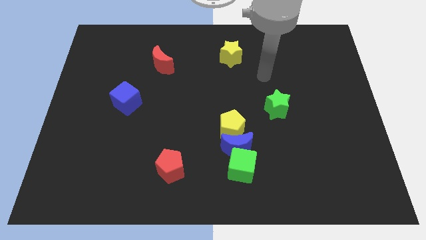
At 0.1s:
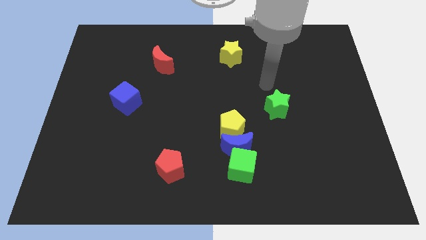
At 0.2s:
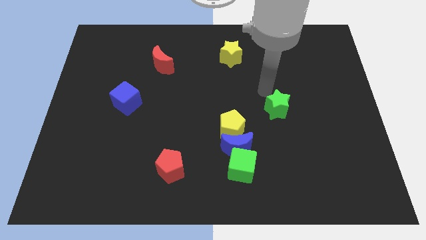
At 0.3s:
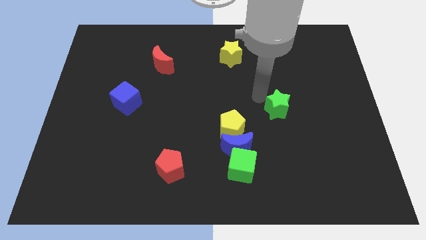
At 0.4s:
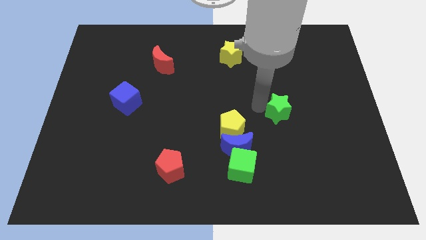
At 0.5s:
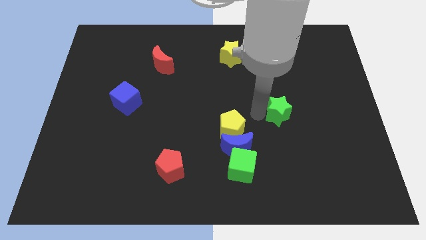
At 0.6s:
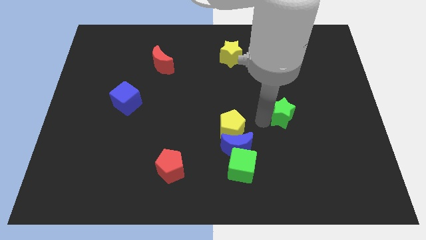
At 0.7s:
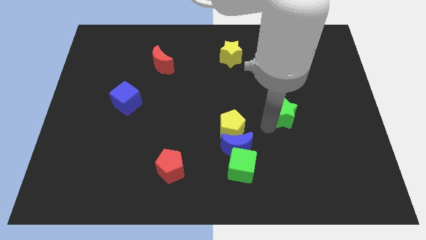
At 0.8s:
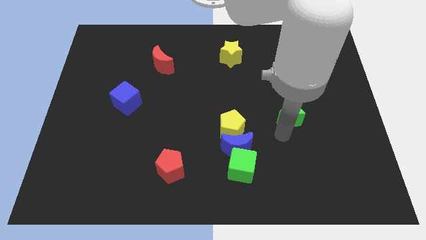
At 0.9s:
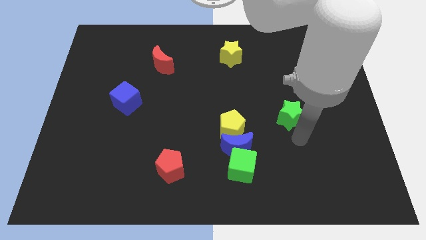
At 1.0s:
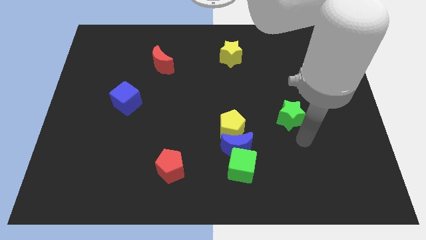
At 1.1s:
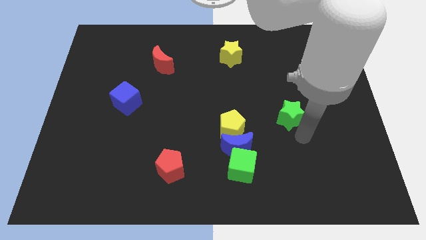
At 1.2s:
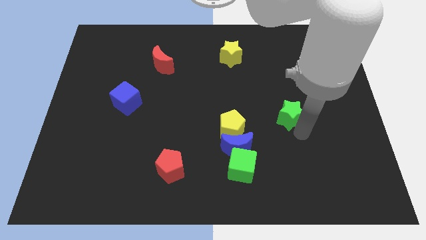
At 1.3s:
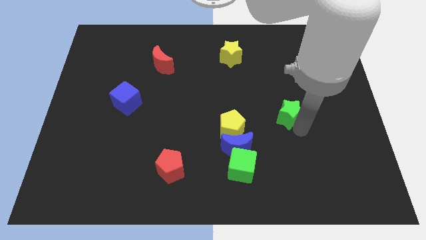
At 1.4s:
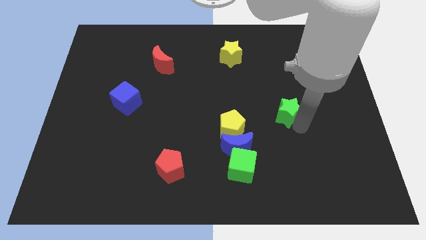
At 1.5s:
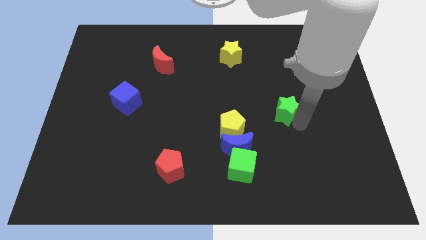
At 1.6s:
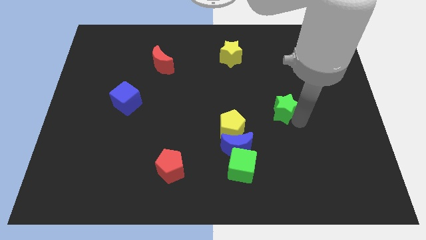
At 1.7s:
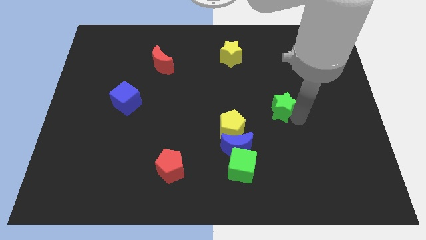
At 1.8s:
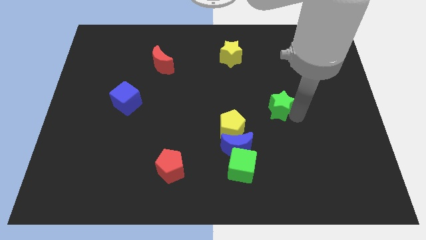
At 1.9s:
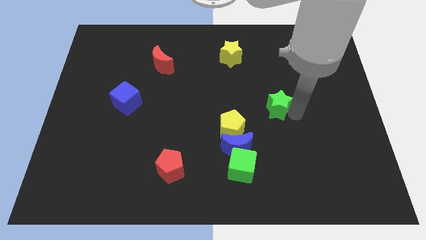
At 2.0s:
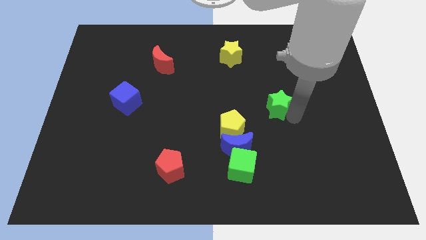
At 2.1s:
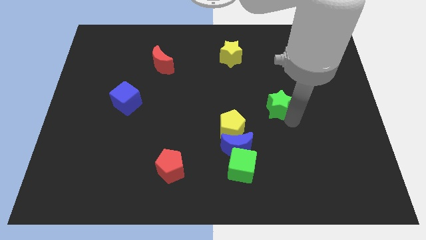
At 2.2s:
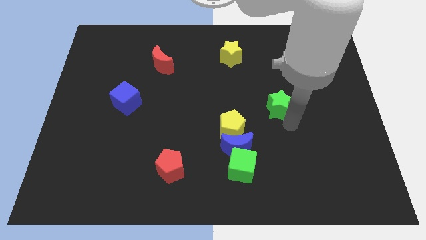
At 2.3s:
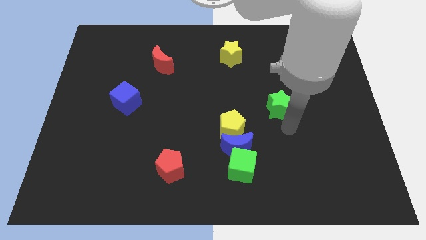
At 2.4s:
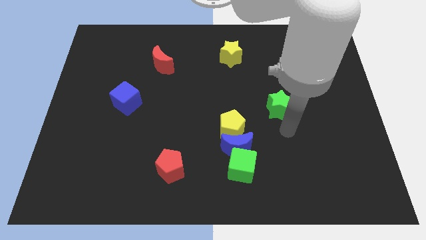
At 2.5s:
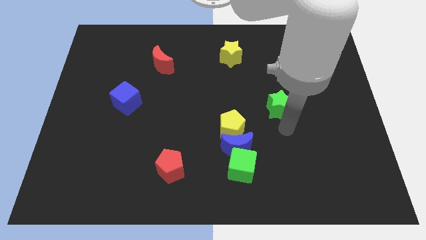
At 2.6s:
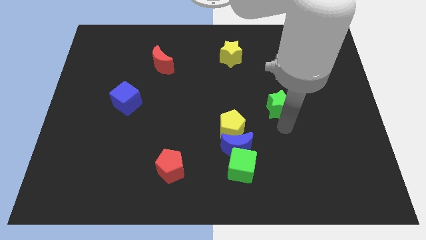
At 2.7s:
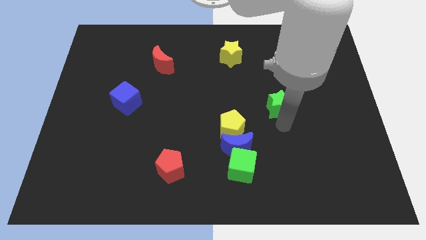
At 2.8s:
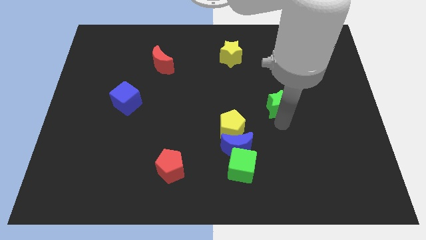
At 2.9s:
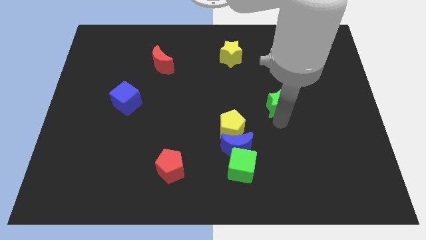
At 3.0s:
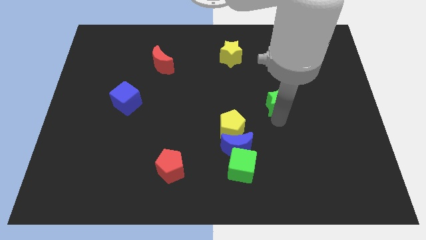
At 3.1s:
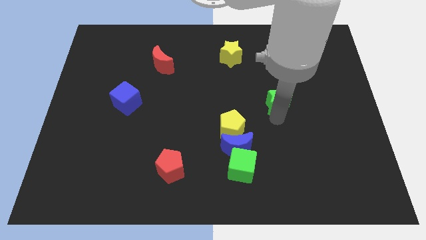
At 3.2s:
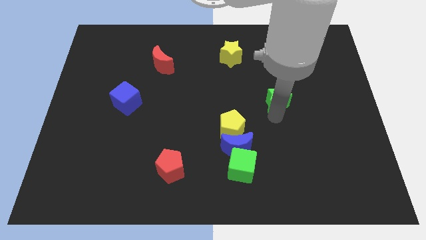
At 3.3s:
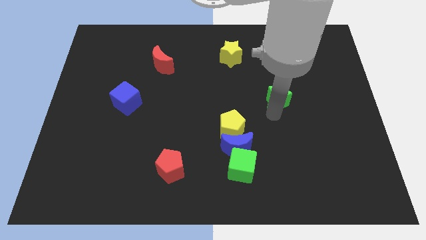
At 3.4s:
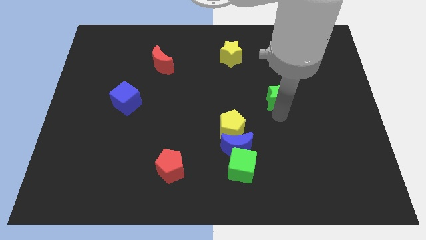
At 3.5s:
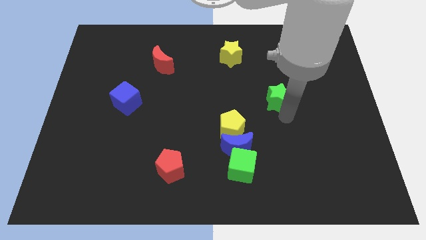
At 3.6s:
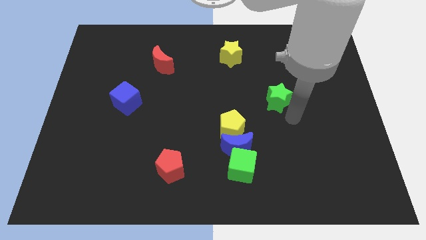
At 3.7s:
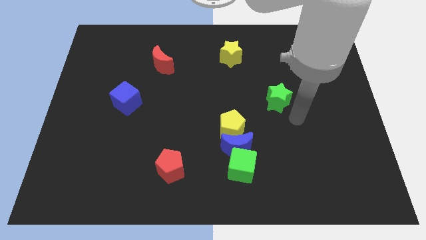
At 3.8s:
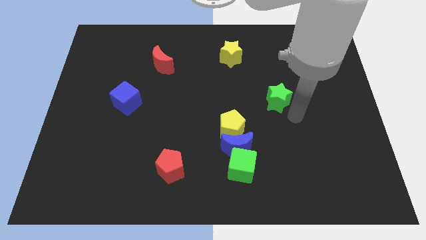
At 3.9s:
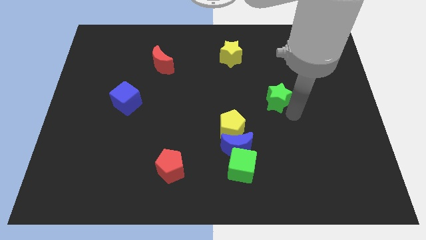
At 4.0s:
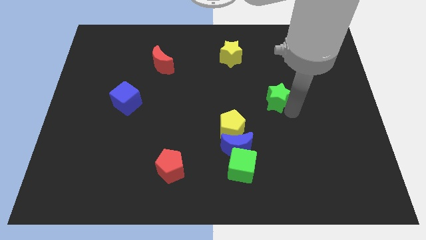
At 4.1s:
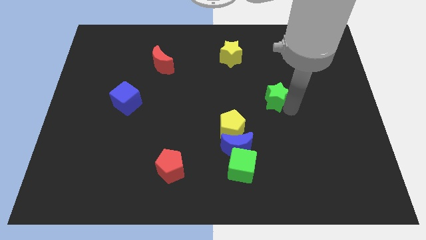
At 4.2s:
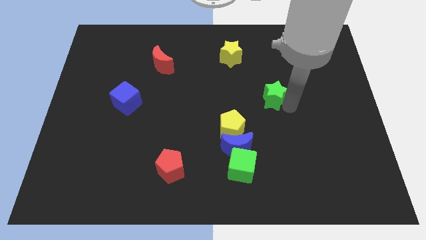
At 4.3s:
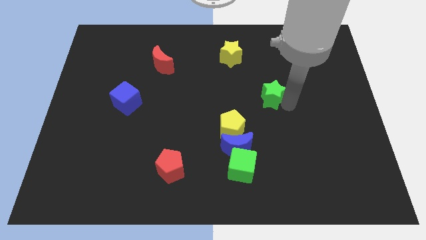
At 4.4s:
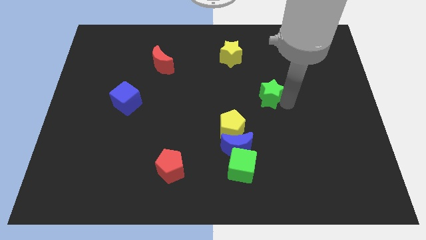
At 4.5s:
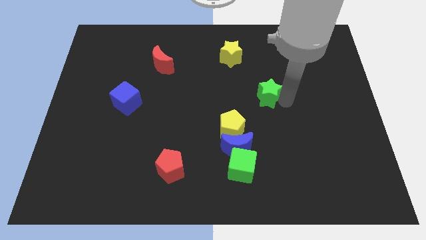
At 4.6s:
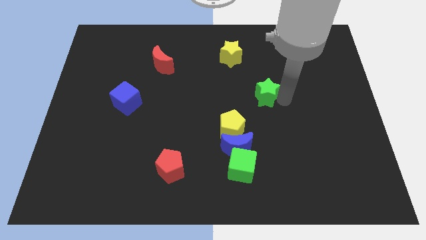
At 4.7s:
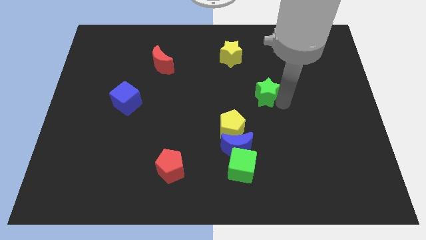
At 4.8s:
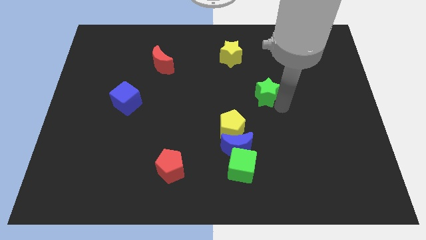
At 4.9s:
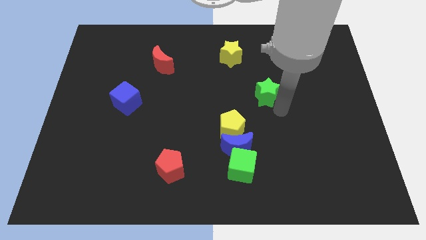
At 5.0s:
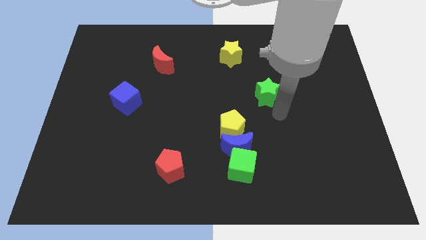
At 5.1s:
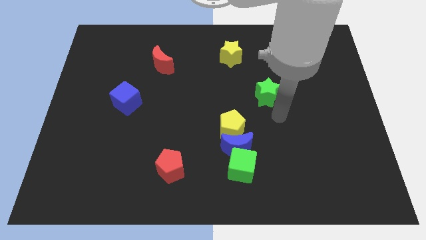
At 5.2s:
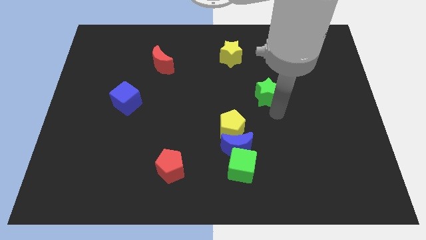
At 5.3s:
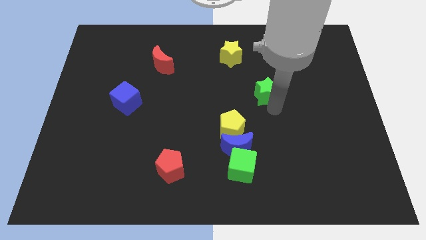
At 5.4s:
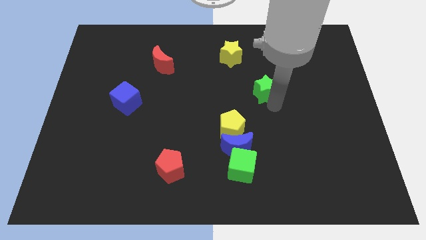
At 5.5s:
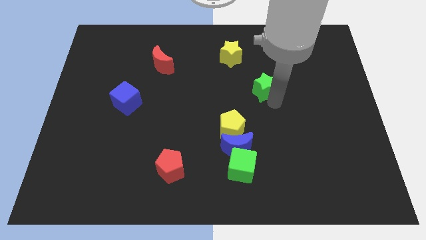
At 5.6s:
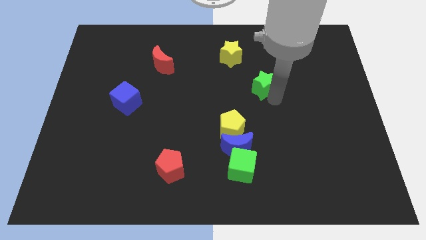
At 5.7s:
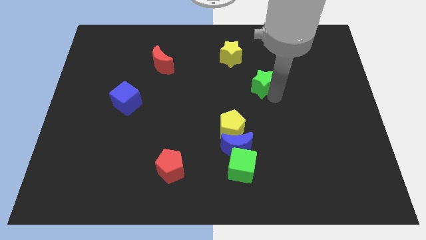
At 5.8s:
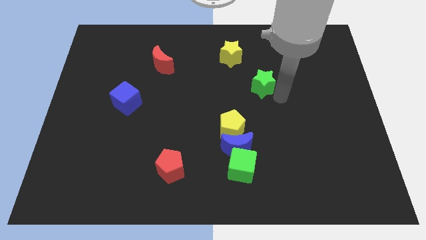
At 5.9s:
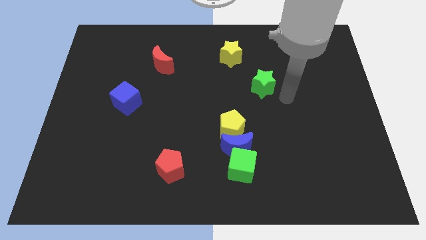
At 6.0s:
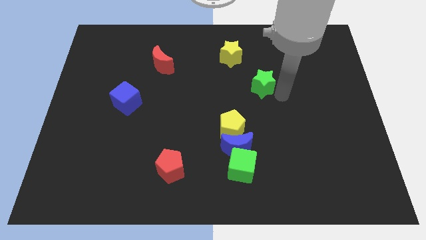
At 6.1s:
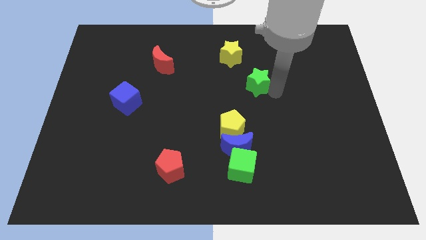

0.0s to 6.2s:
move the green star a little diagonally upwards and to the left

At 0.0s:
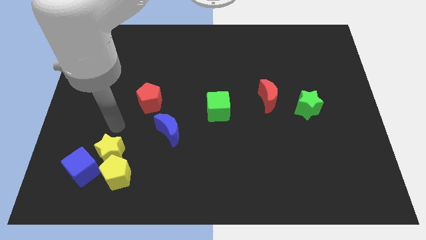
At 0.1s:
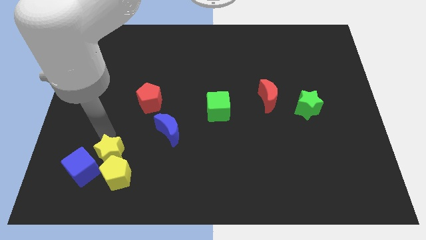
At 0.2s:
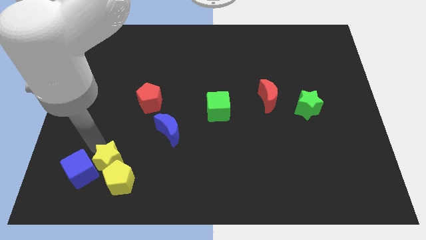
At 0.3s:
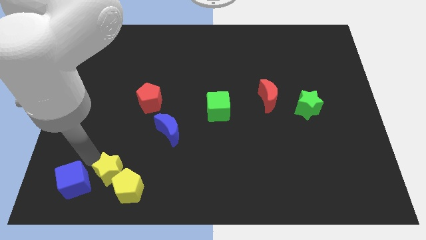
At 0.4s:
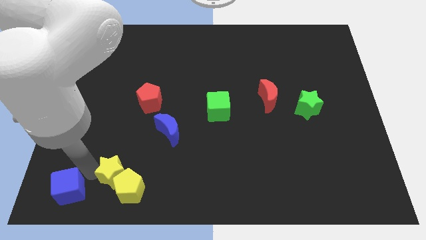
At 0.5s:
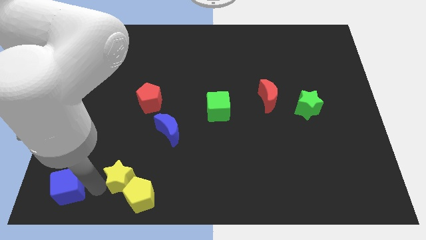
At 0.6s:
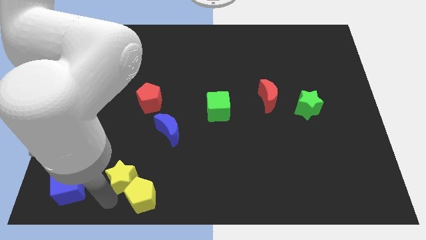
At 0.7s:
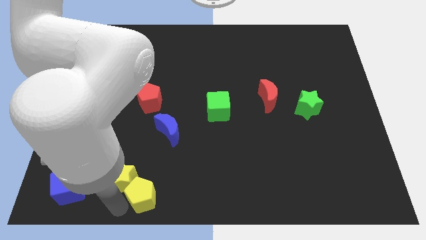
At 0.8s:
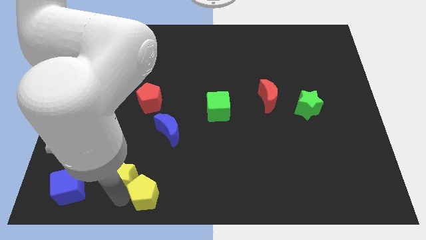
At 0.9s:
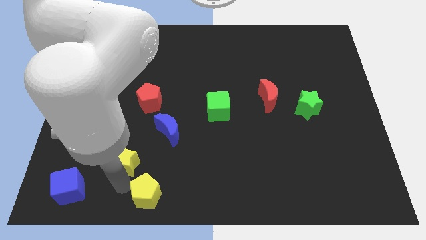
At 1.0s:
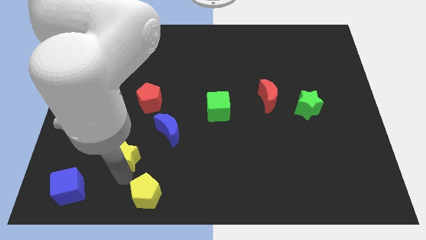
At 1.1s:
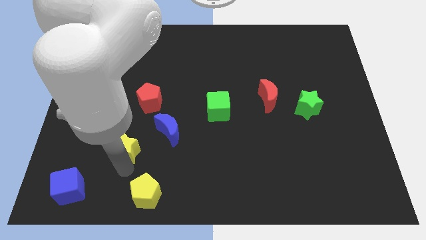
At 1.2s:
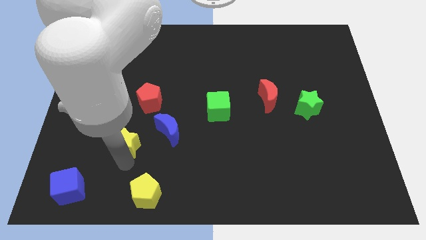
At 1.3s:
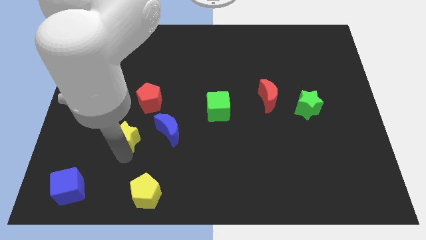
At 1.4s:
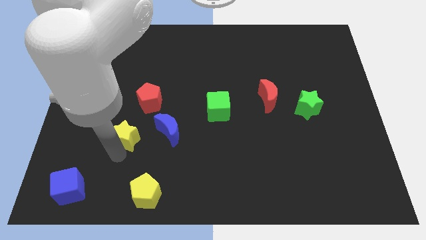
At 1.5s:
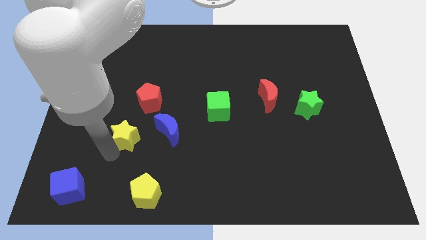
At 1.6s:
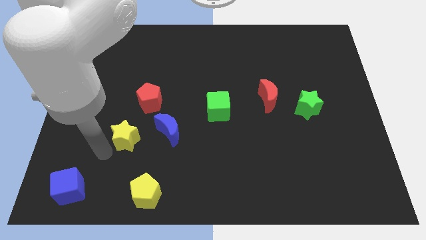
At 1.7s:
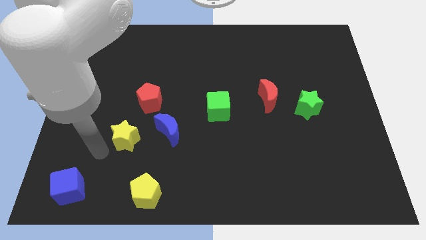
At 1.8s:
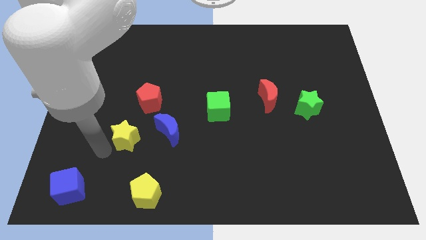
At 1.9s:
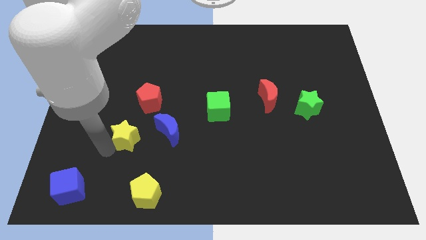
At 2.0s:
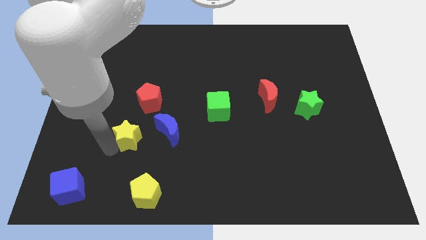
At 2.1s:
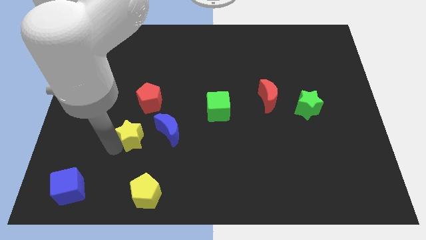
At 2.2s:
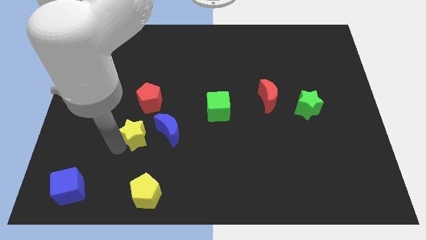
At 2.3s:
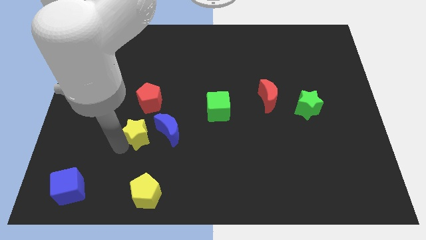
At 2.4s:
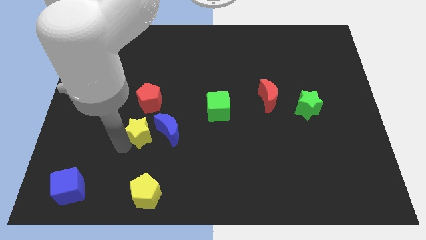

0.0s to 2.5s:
push the yellow star up and to the right slightly
